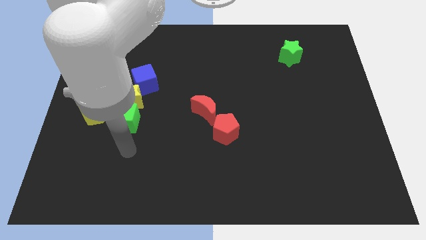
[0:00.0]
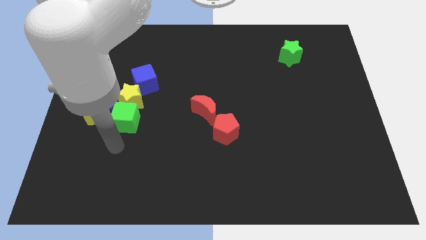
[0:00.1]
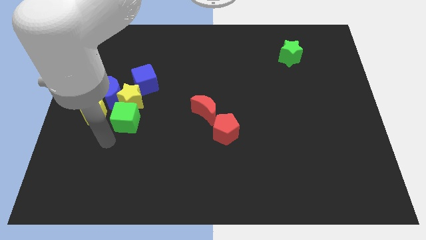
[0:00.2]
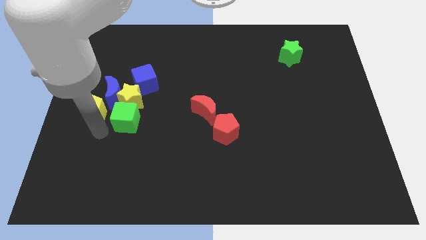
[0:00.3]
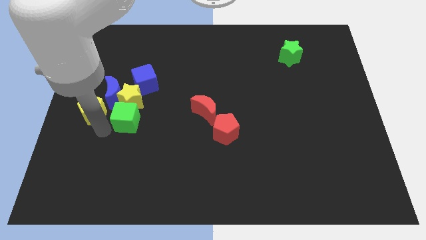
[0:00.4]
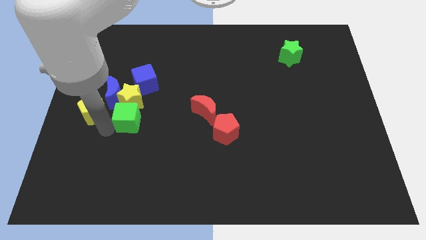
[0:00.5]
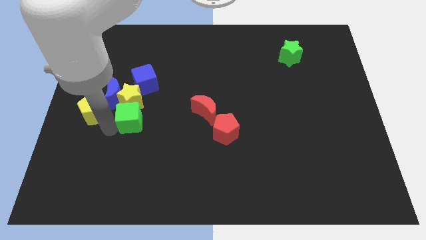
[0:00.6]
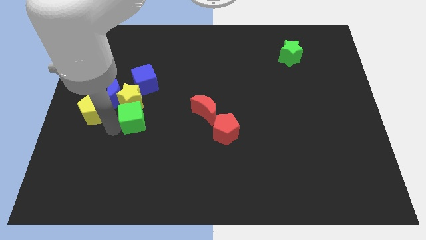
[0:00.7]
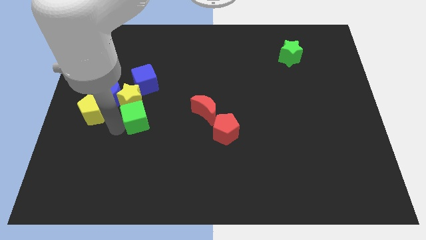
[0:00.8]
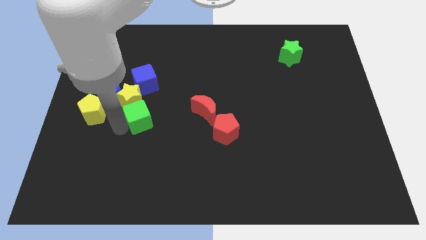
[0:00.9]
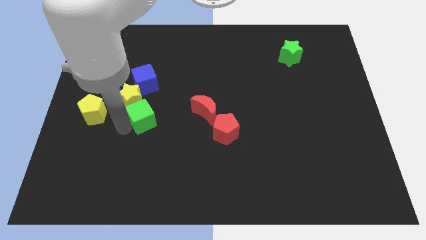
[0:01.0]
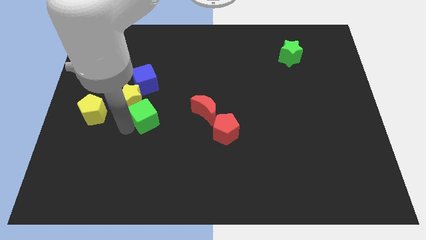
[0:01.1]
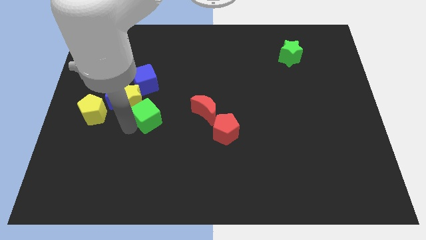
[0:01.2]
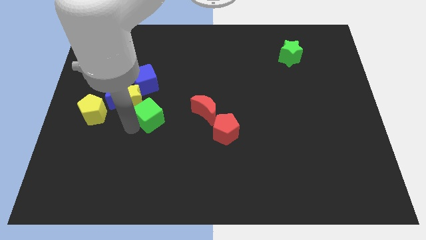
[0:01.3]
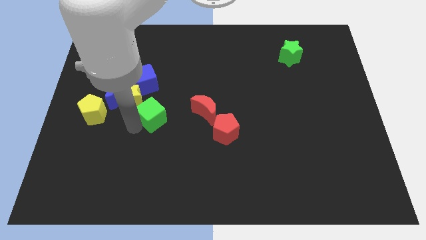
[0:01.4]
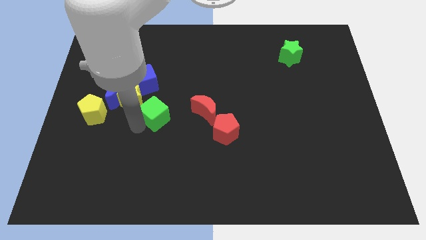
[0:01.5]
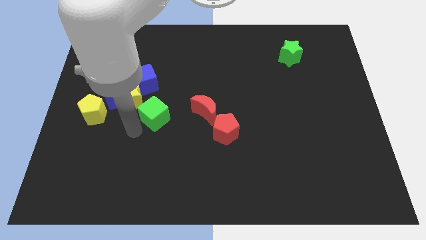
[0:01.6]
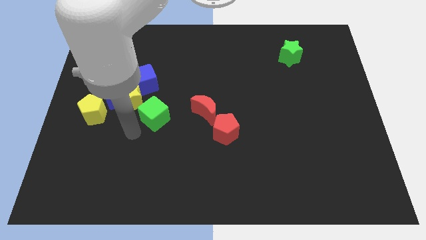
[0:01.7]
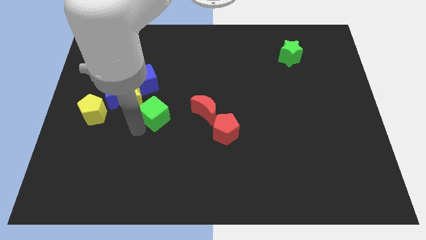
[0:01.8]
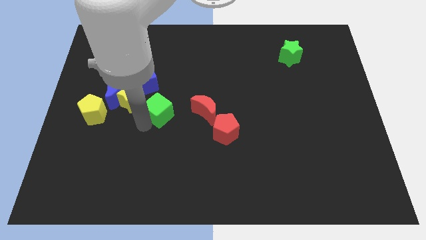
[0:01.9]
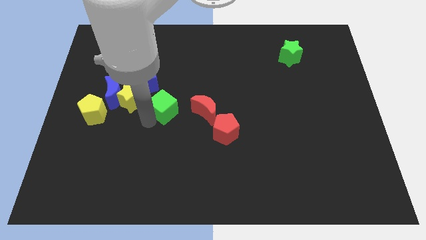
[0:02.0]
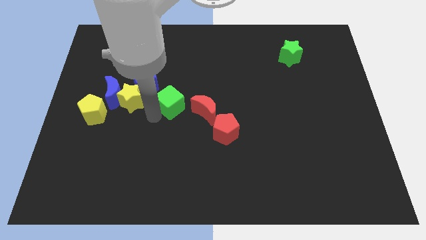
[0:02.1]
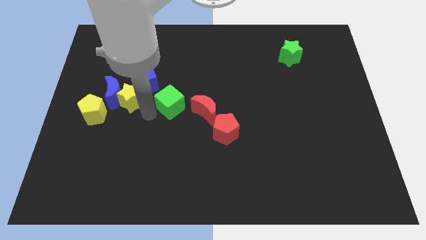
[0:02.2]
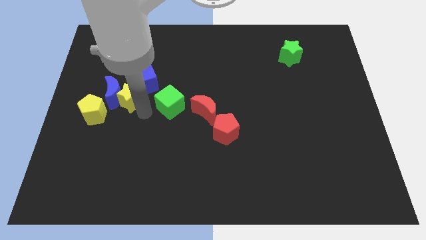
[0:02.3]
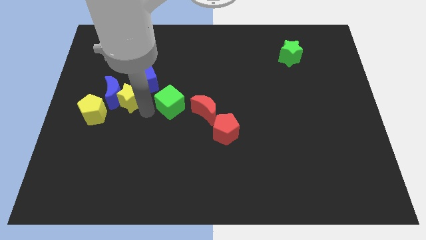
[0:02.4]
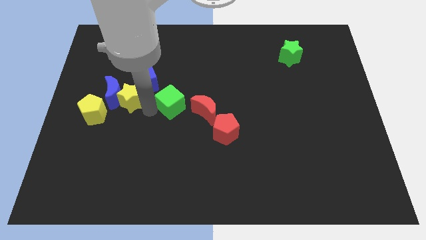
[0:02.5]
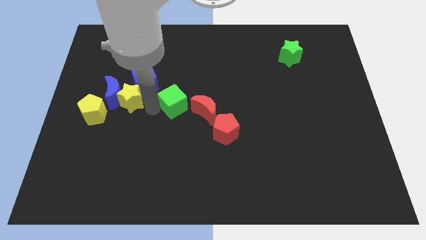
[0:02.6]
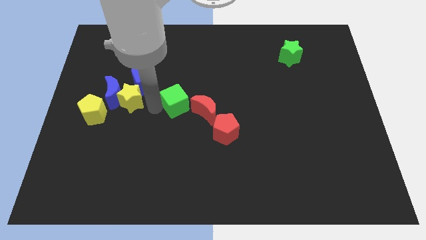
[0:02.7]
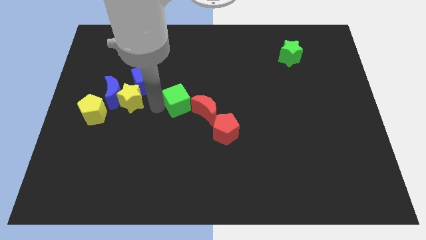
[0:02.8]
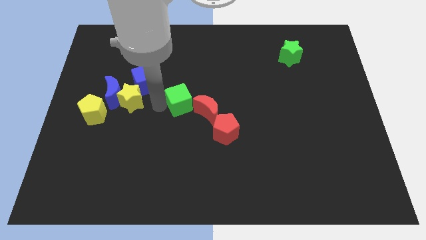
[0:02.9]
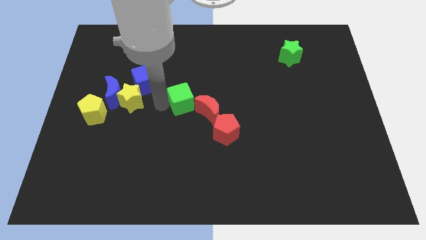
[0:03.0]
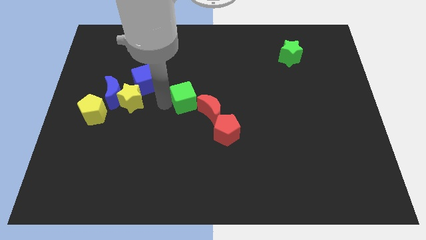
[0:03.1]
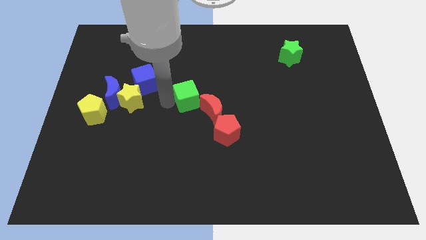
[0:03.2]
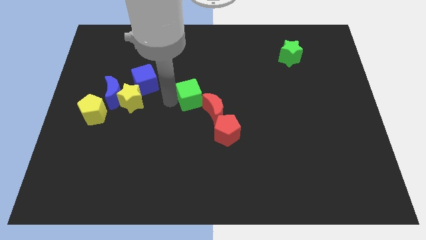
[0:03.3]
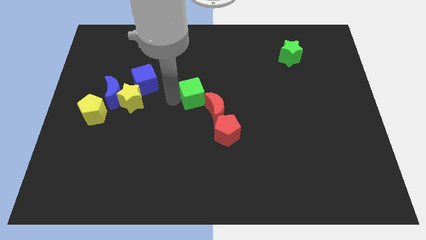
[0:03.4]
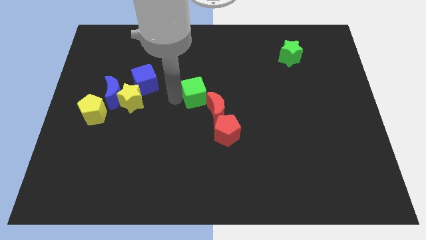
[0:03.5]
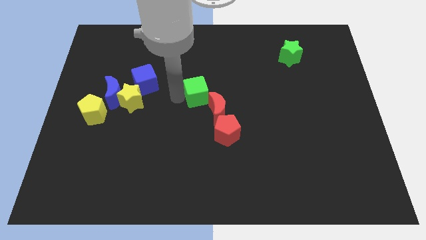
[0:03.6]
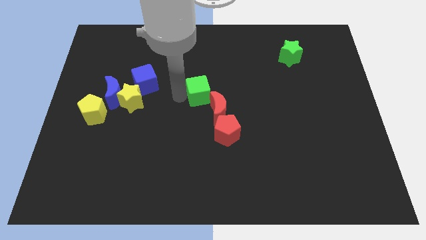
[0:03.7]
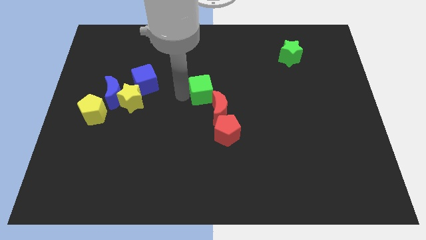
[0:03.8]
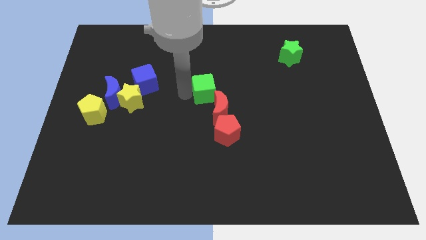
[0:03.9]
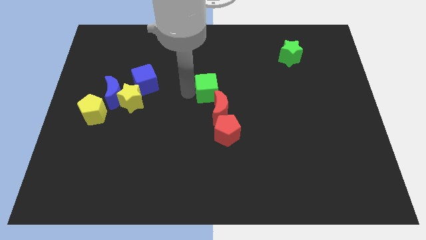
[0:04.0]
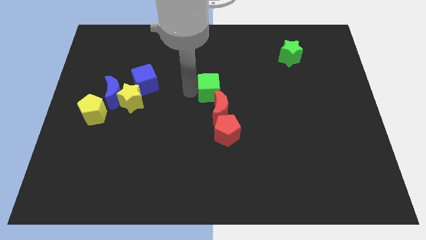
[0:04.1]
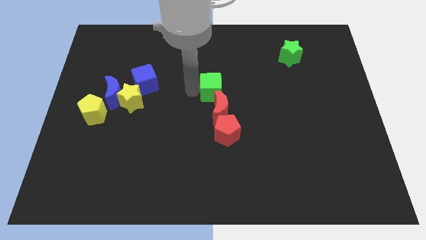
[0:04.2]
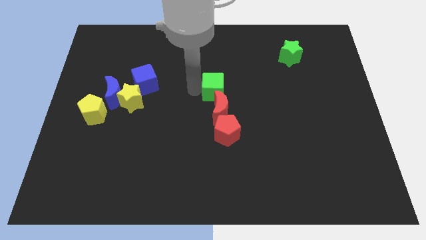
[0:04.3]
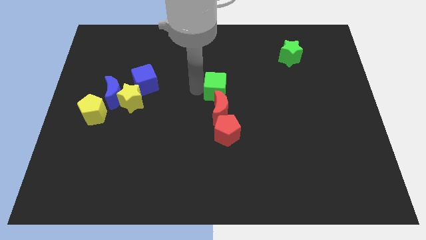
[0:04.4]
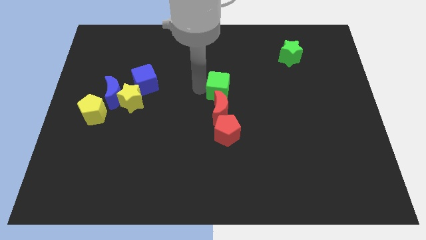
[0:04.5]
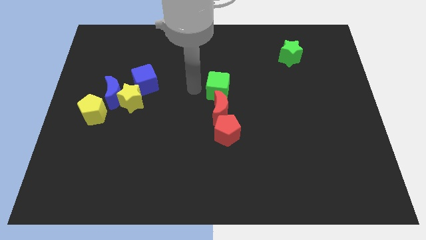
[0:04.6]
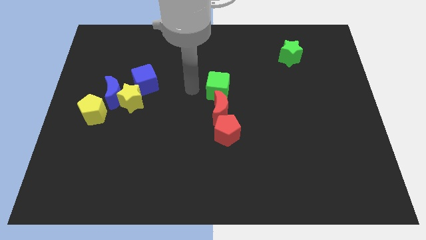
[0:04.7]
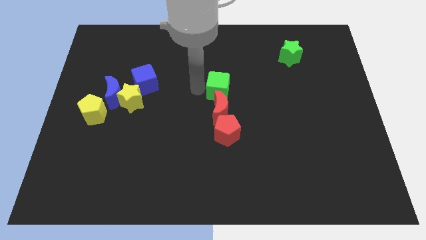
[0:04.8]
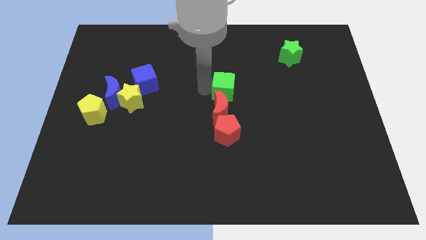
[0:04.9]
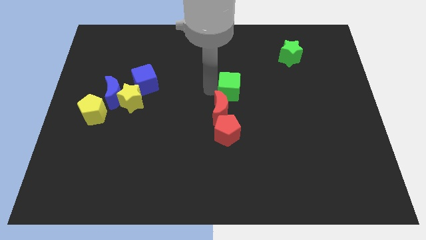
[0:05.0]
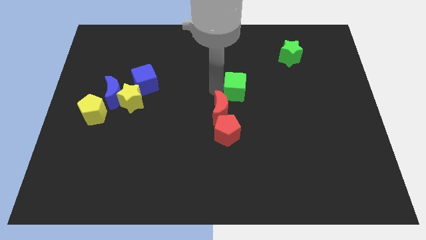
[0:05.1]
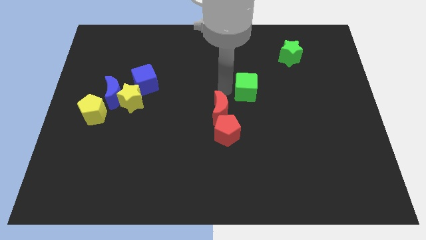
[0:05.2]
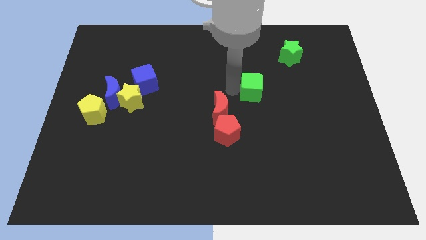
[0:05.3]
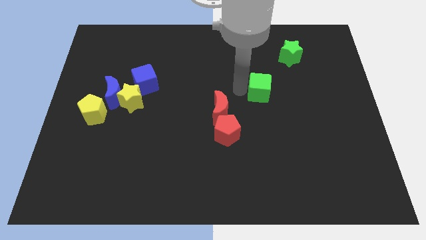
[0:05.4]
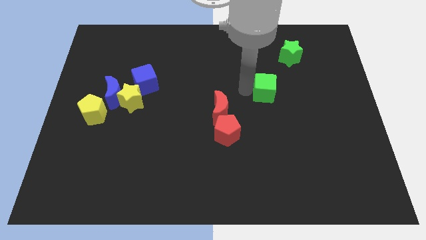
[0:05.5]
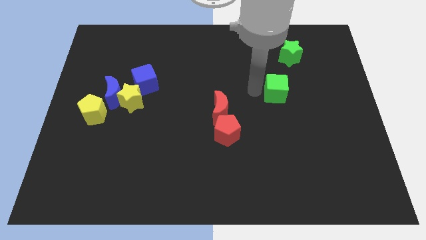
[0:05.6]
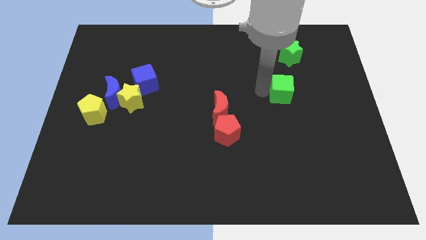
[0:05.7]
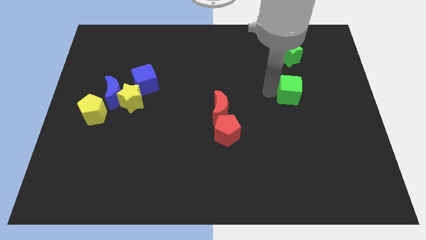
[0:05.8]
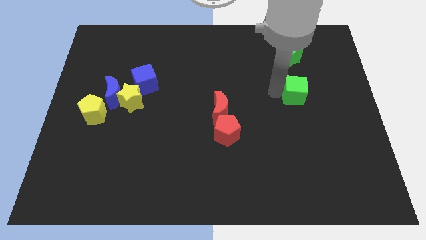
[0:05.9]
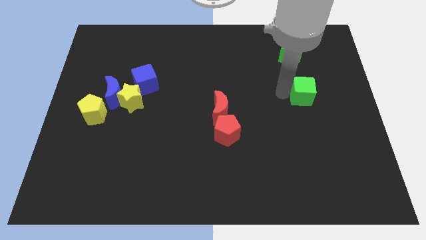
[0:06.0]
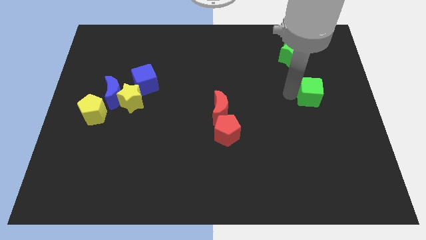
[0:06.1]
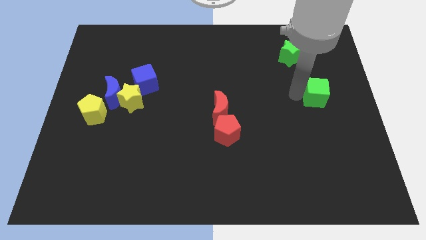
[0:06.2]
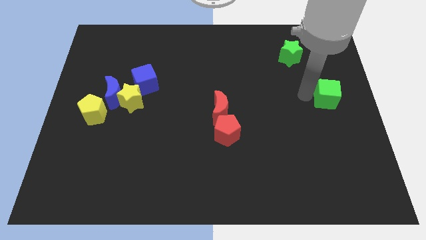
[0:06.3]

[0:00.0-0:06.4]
slide the green cube to the center right
